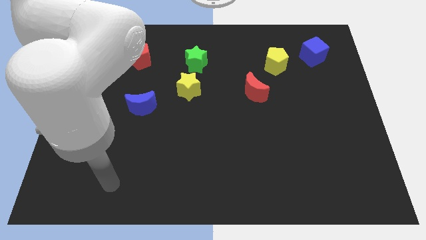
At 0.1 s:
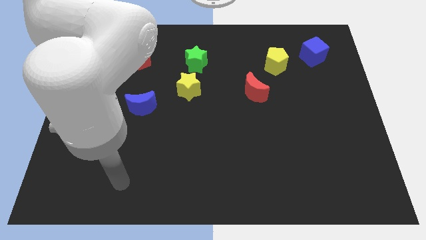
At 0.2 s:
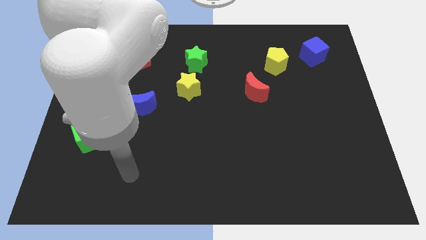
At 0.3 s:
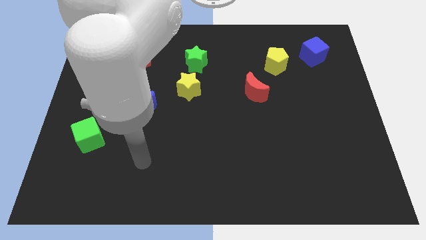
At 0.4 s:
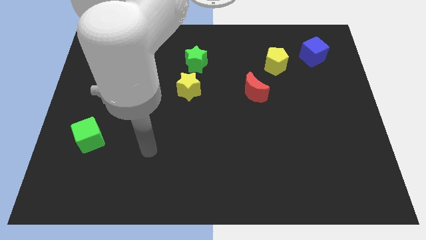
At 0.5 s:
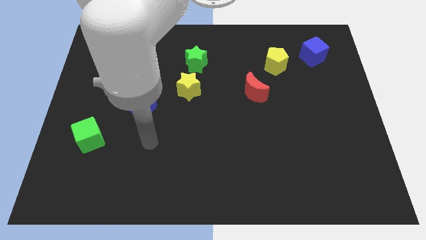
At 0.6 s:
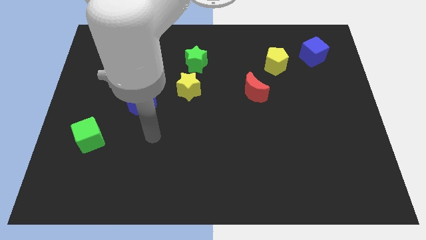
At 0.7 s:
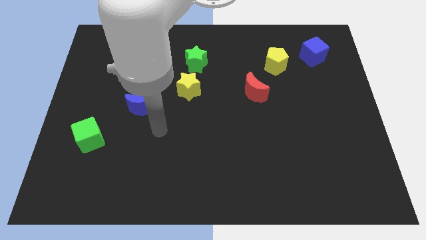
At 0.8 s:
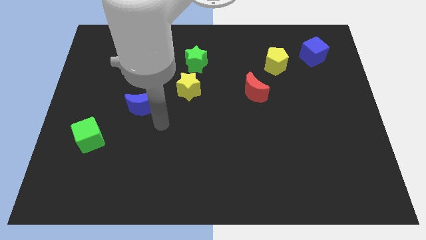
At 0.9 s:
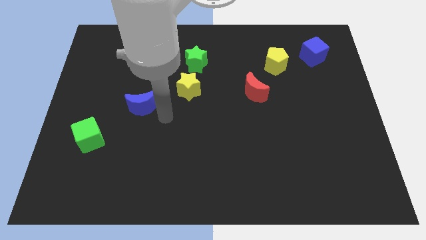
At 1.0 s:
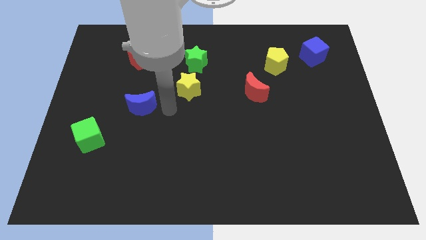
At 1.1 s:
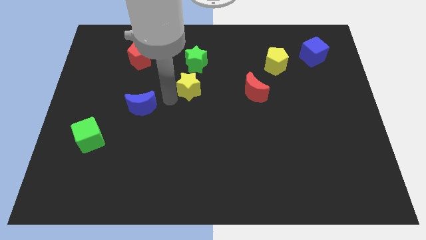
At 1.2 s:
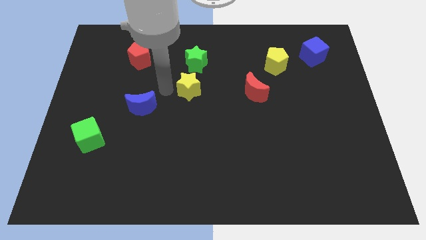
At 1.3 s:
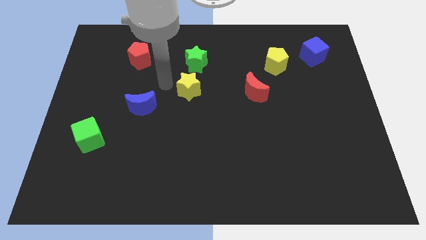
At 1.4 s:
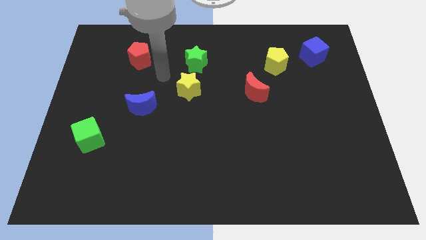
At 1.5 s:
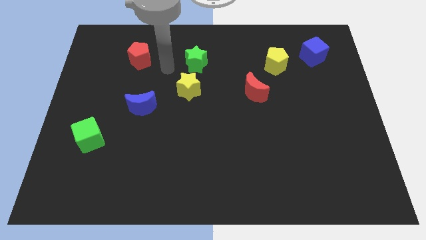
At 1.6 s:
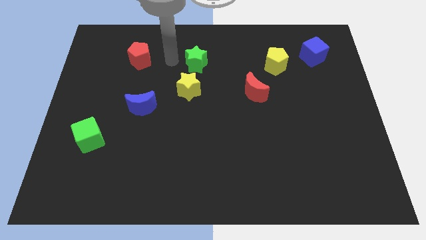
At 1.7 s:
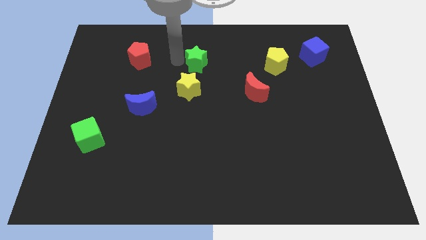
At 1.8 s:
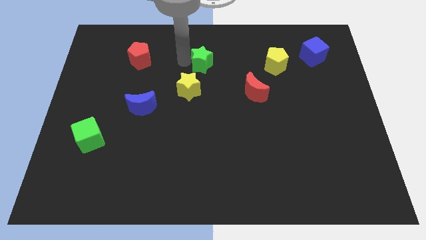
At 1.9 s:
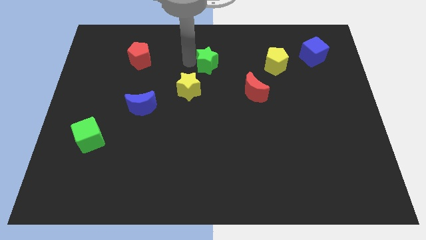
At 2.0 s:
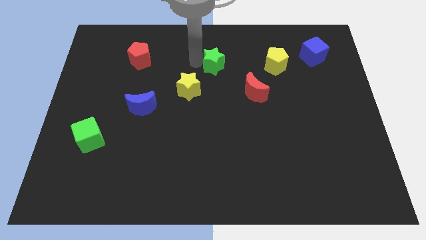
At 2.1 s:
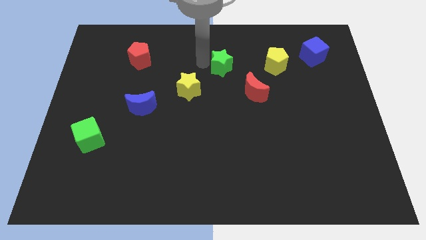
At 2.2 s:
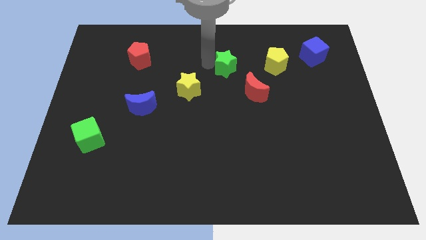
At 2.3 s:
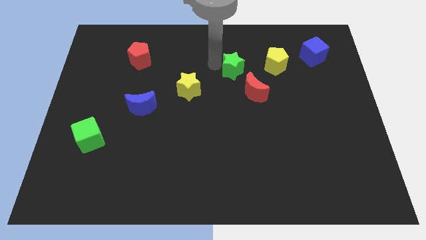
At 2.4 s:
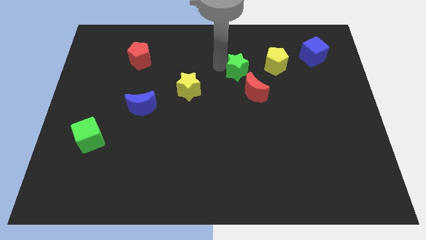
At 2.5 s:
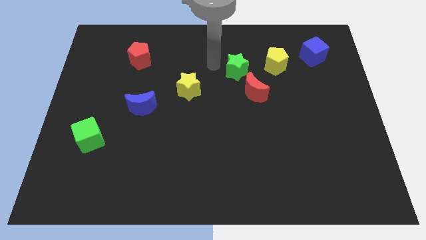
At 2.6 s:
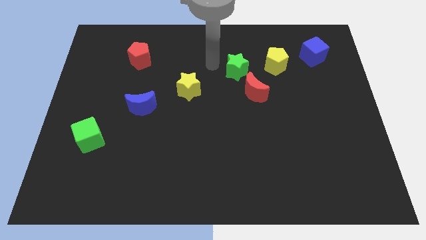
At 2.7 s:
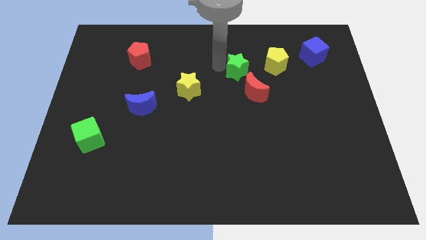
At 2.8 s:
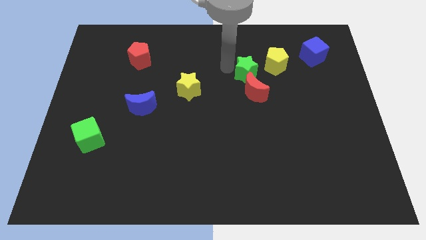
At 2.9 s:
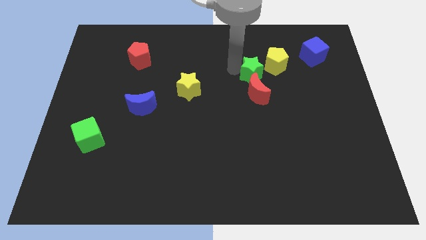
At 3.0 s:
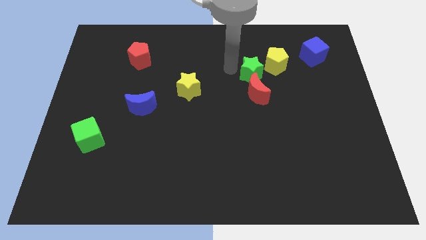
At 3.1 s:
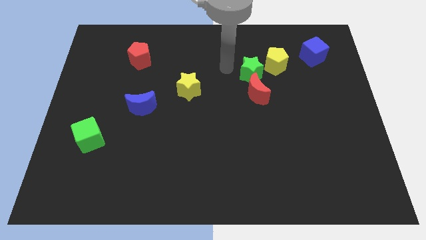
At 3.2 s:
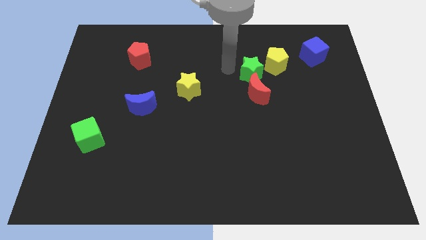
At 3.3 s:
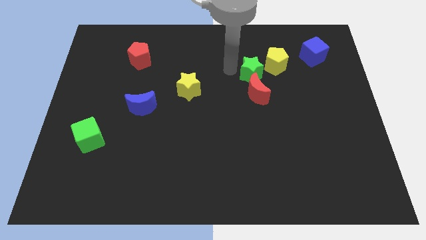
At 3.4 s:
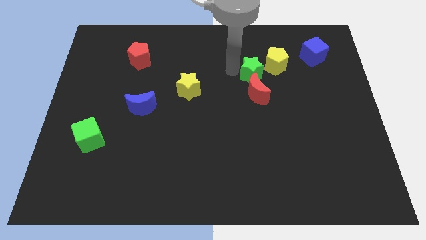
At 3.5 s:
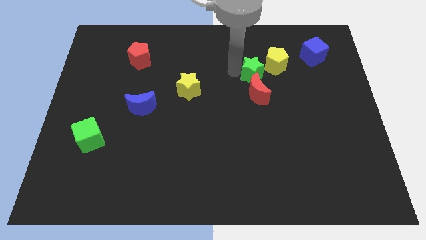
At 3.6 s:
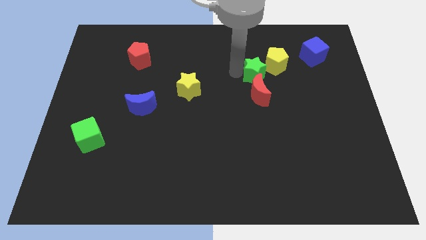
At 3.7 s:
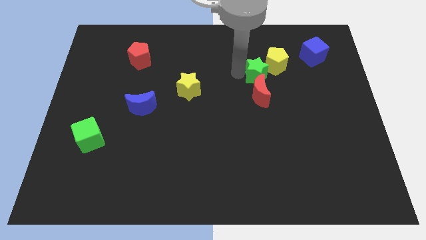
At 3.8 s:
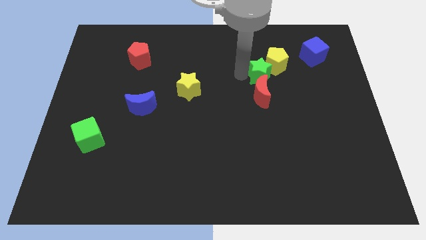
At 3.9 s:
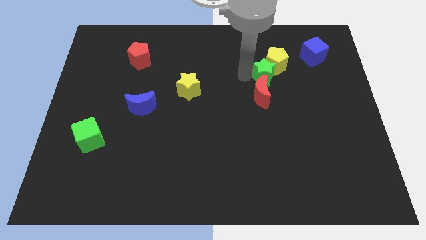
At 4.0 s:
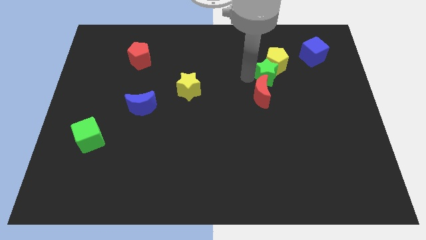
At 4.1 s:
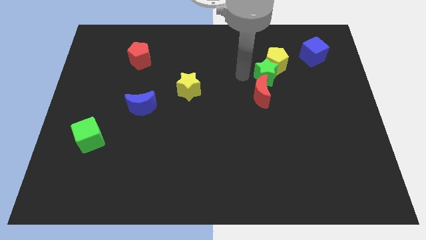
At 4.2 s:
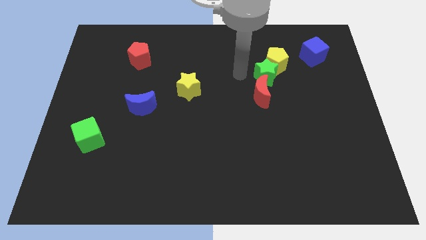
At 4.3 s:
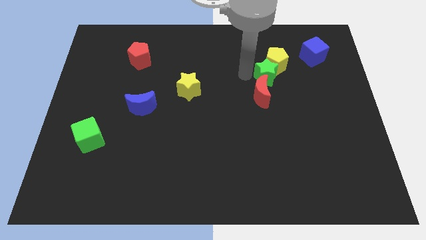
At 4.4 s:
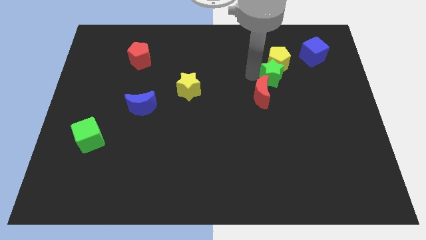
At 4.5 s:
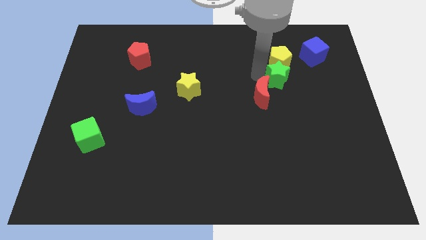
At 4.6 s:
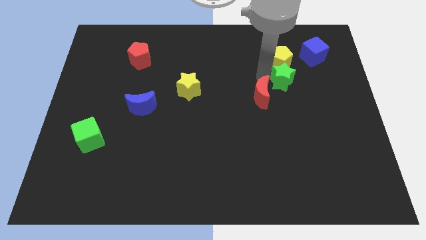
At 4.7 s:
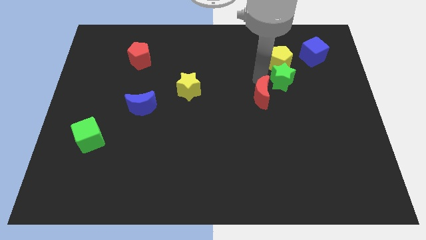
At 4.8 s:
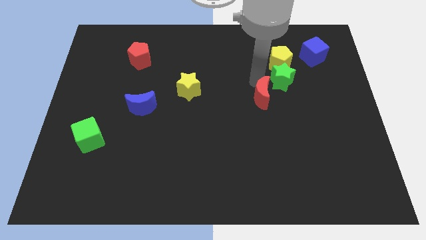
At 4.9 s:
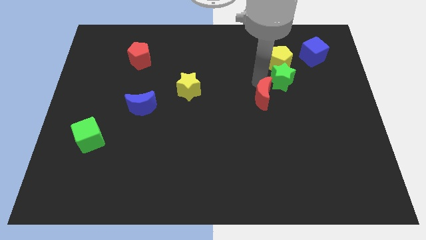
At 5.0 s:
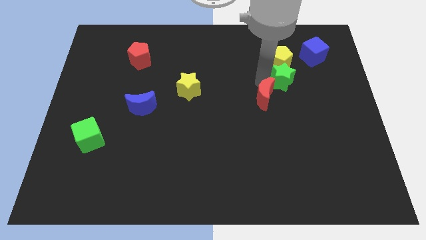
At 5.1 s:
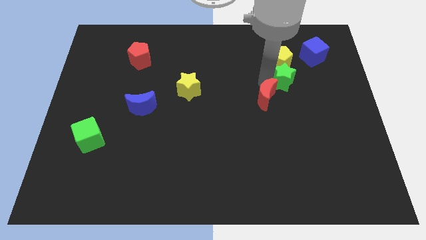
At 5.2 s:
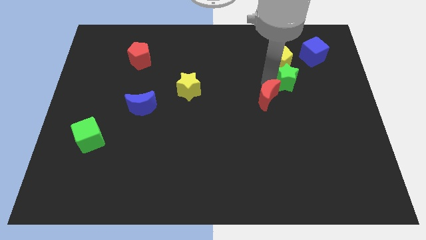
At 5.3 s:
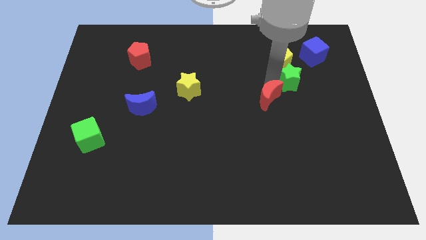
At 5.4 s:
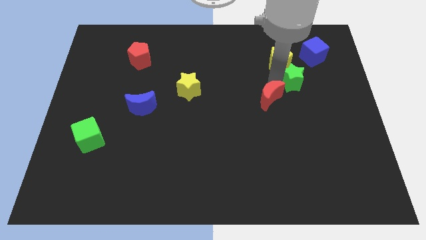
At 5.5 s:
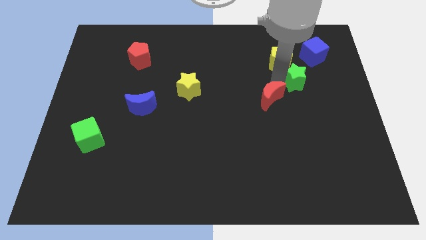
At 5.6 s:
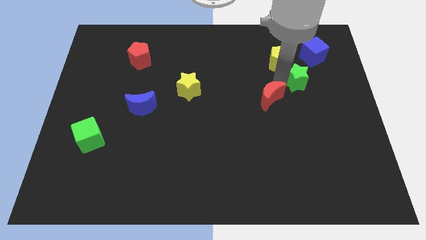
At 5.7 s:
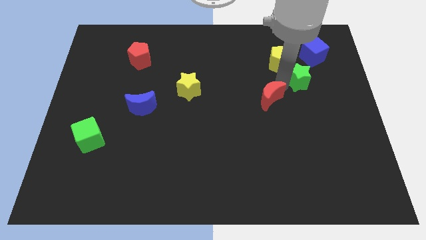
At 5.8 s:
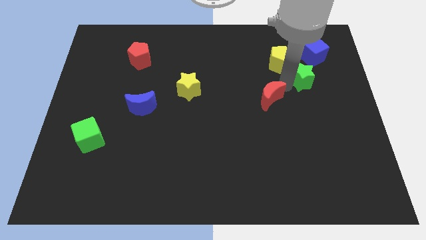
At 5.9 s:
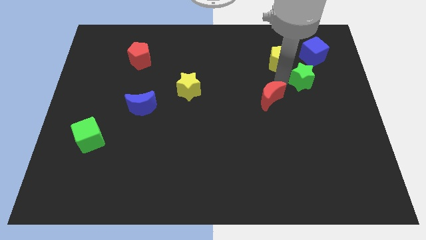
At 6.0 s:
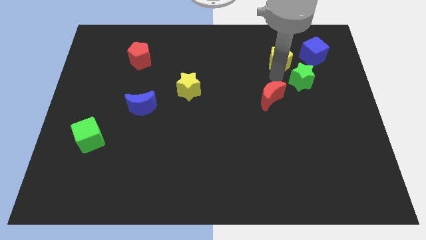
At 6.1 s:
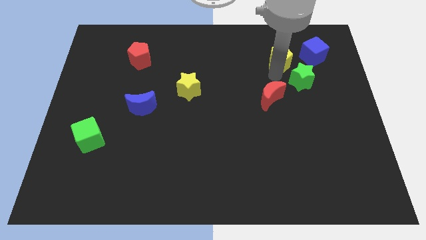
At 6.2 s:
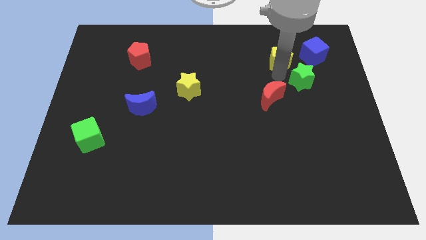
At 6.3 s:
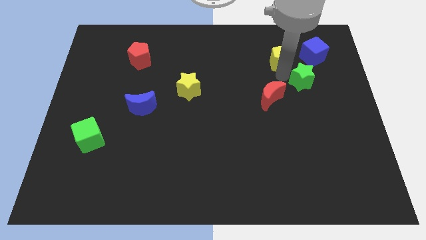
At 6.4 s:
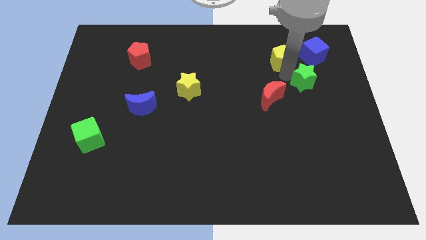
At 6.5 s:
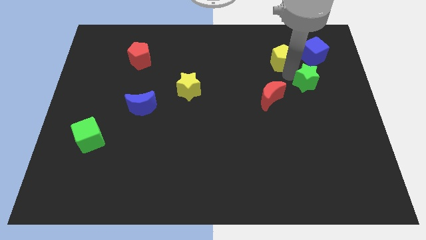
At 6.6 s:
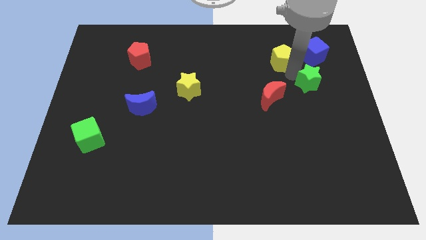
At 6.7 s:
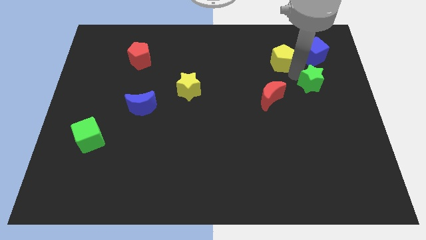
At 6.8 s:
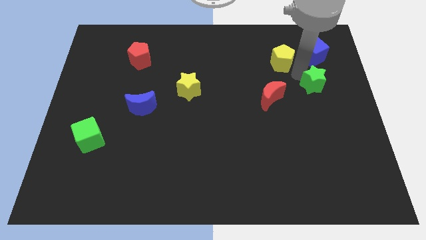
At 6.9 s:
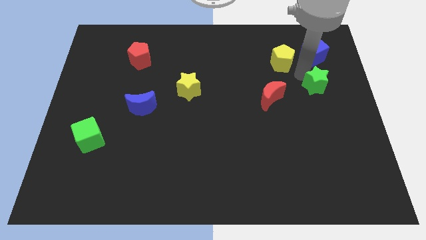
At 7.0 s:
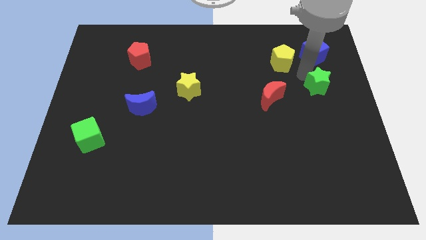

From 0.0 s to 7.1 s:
put the green star to the center right
